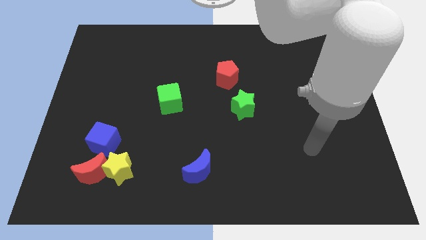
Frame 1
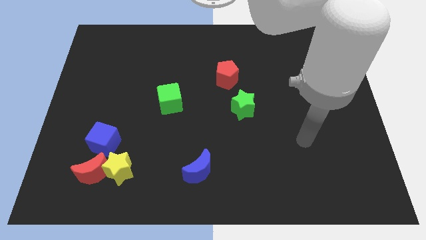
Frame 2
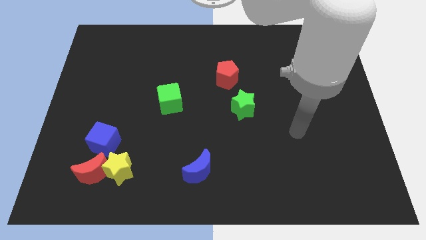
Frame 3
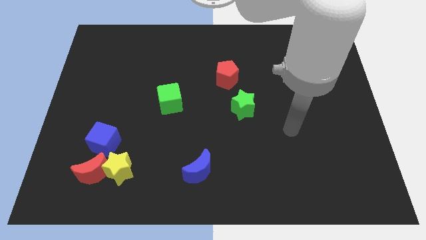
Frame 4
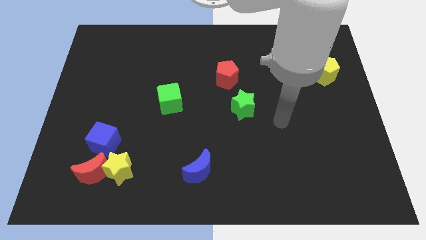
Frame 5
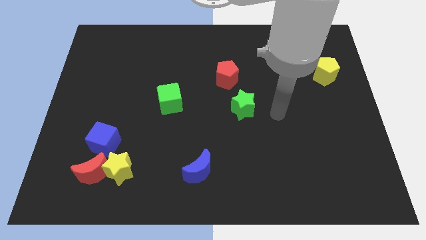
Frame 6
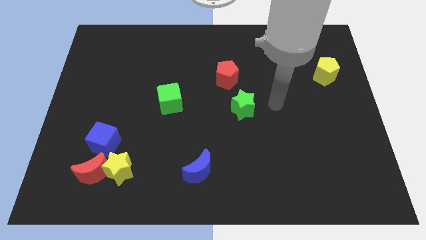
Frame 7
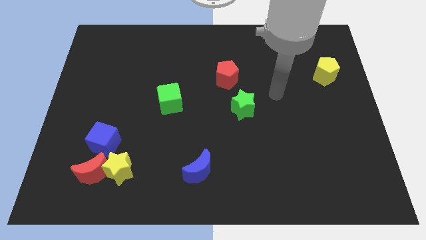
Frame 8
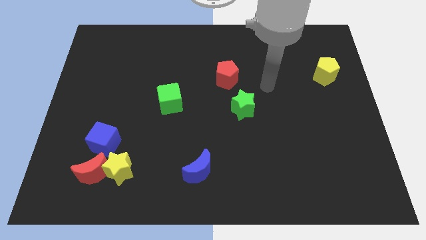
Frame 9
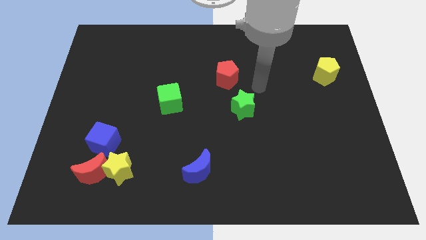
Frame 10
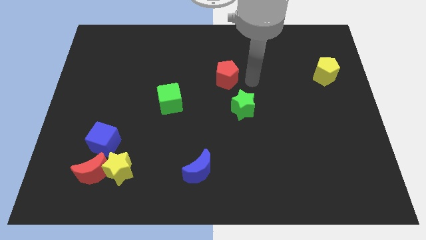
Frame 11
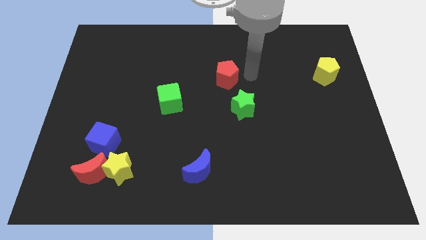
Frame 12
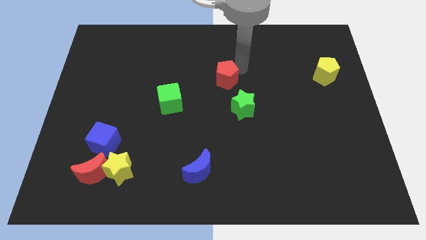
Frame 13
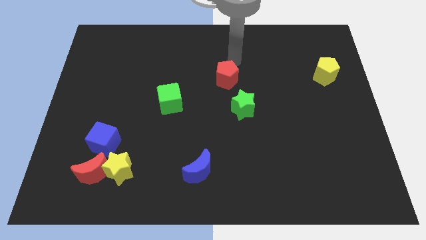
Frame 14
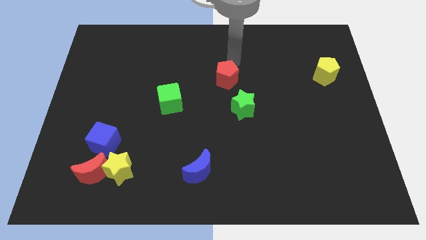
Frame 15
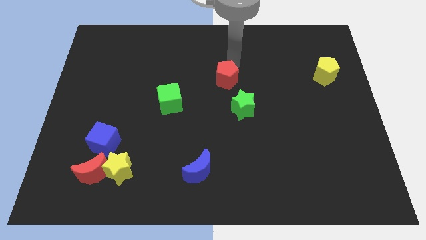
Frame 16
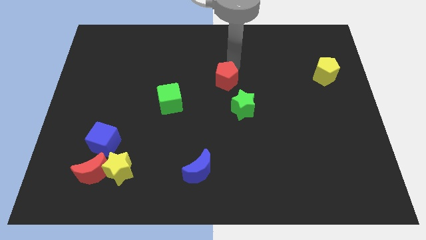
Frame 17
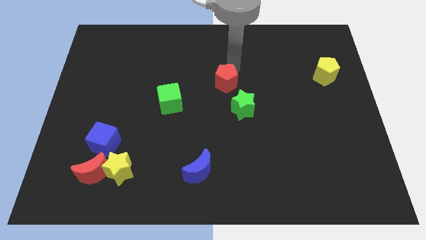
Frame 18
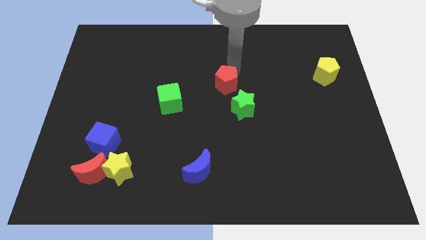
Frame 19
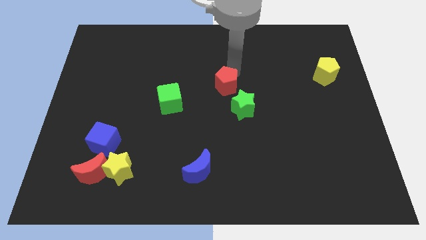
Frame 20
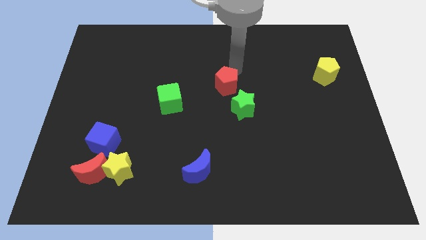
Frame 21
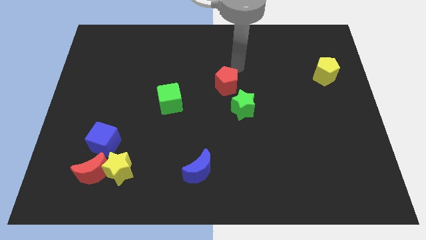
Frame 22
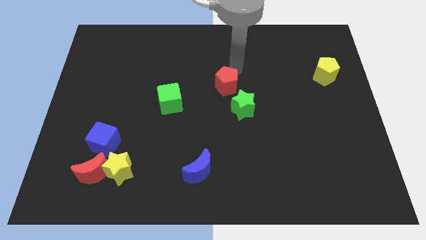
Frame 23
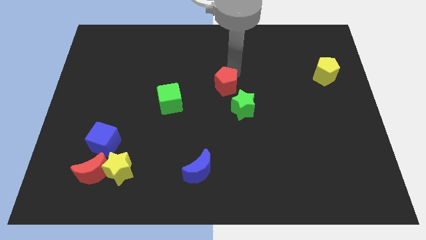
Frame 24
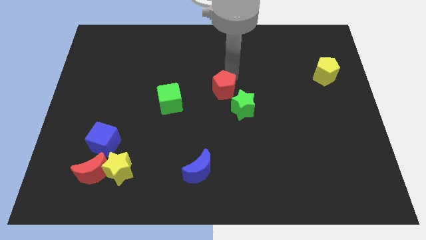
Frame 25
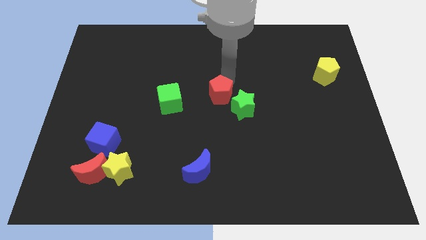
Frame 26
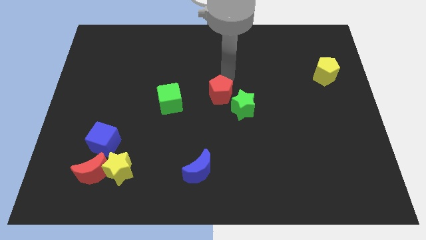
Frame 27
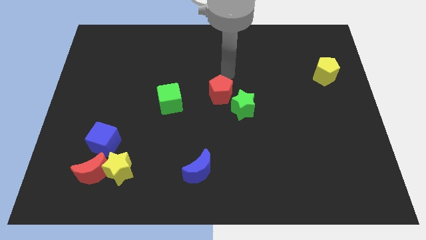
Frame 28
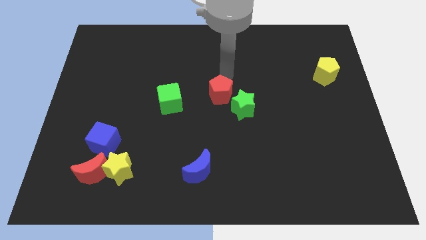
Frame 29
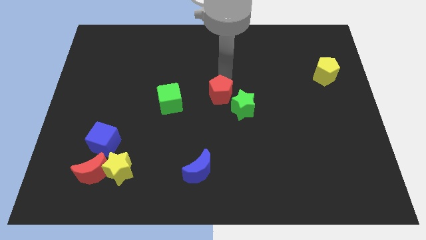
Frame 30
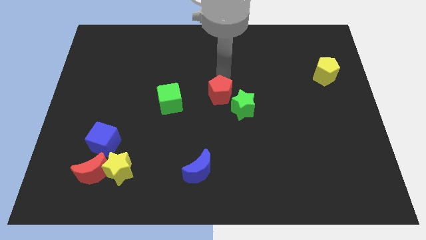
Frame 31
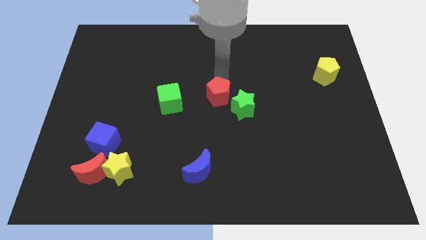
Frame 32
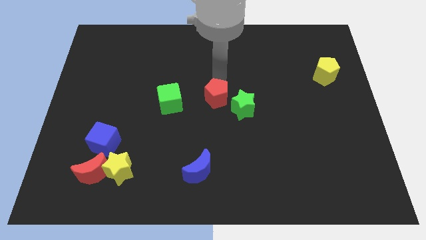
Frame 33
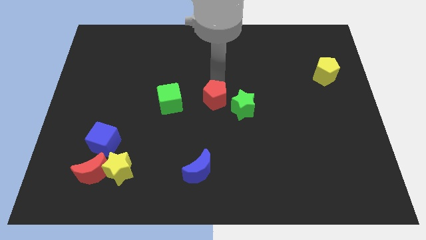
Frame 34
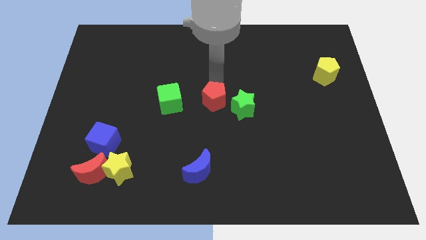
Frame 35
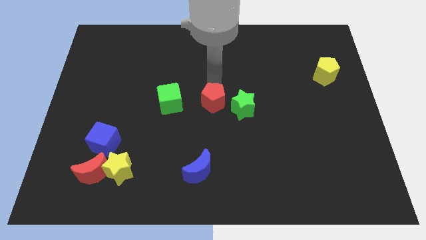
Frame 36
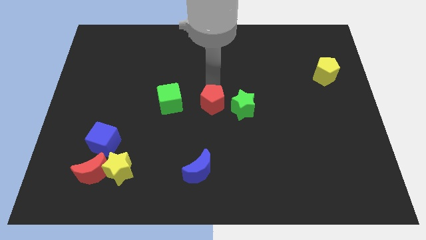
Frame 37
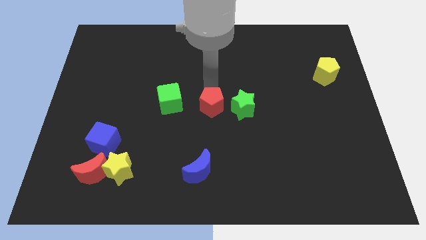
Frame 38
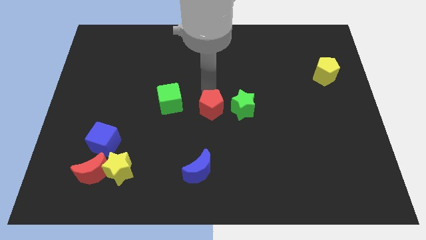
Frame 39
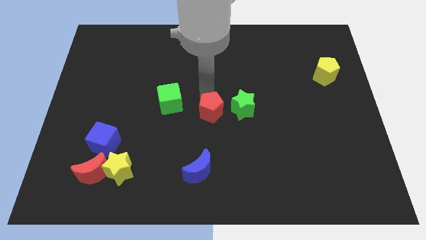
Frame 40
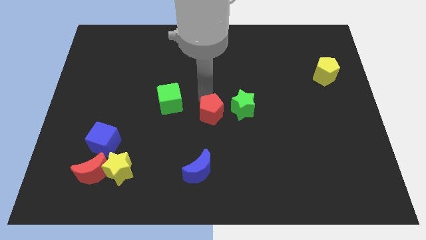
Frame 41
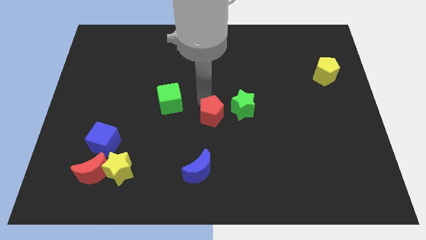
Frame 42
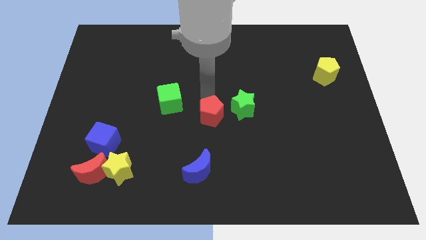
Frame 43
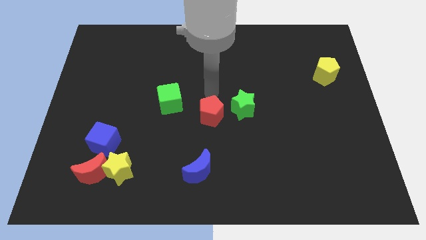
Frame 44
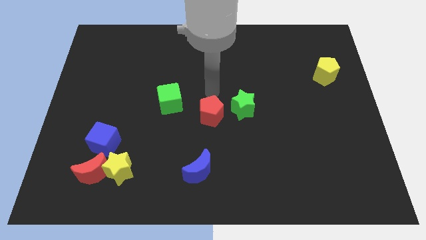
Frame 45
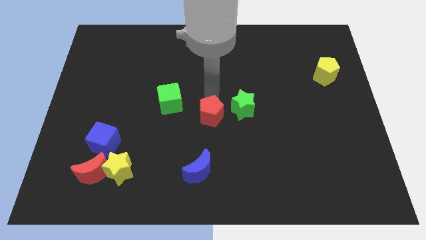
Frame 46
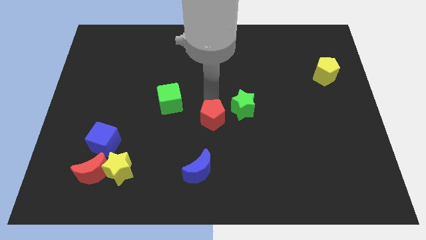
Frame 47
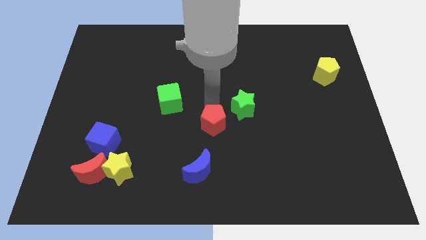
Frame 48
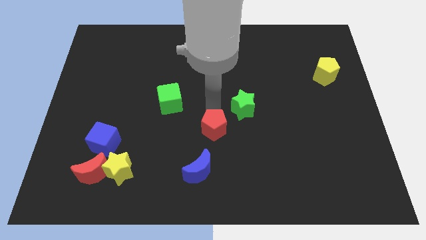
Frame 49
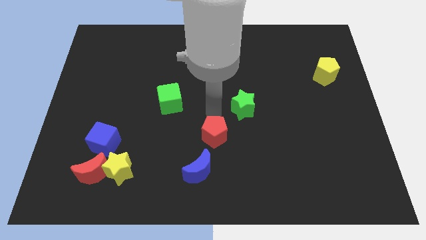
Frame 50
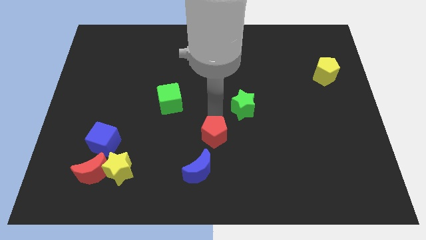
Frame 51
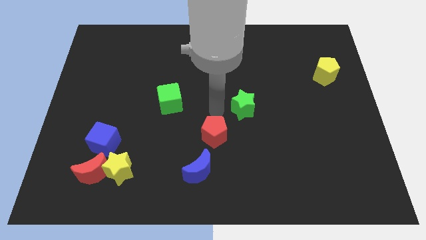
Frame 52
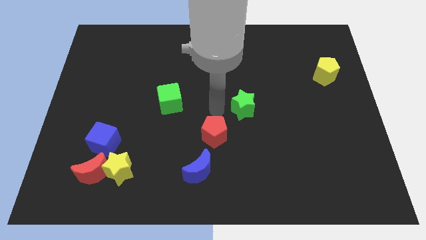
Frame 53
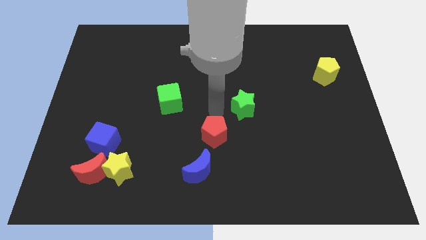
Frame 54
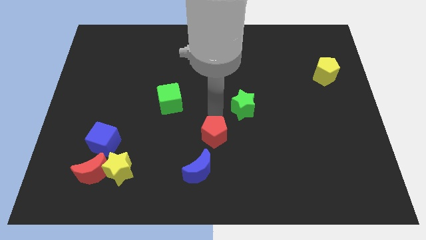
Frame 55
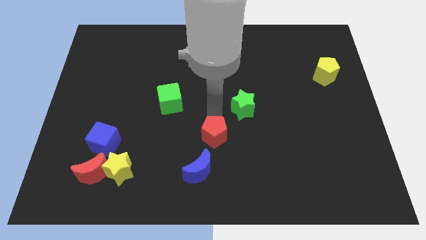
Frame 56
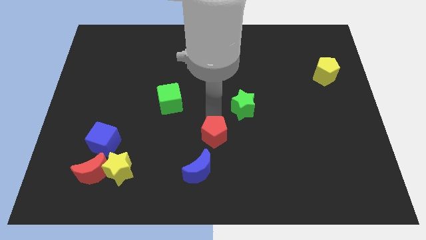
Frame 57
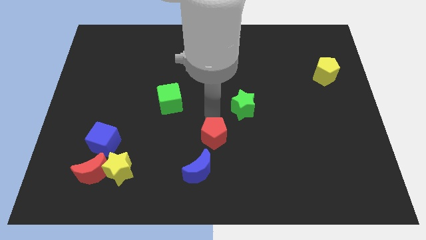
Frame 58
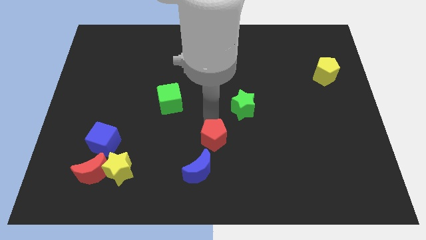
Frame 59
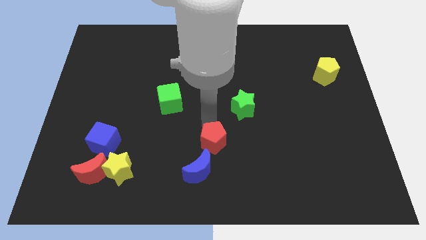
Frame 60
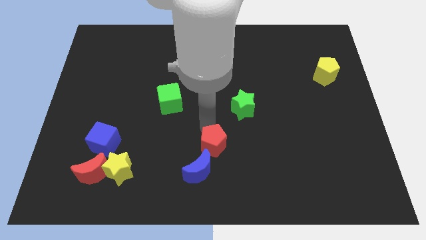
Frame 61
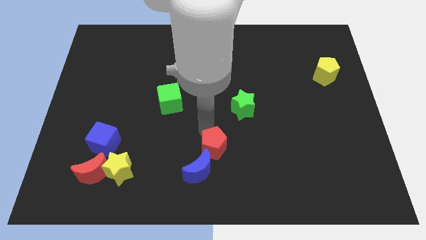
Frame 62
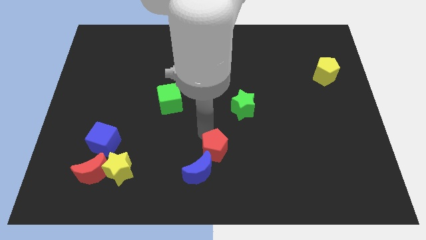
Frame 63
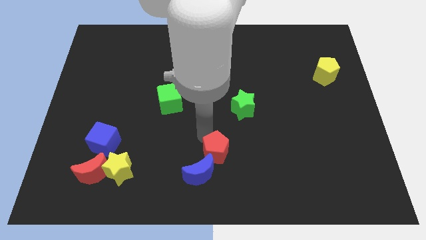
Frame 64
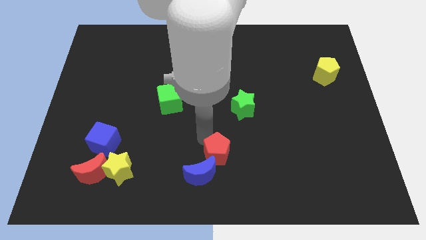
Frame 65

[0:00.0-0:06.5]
slide the red pentagon to the bottom side

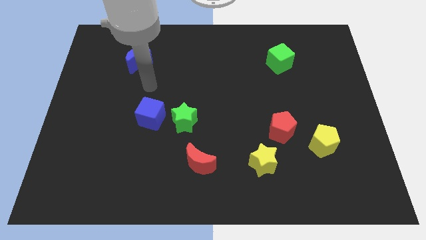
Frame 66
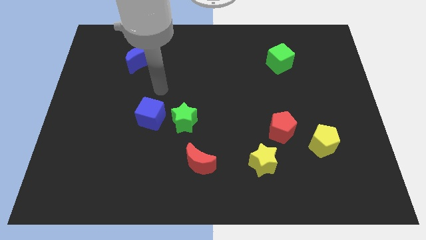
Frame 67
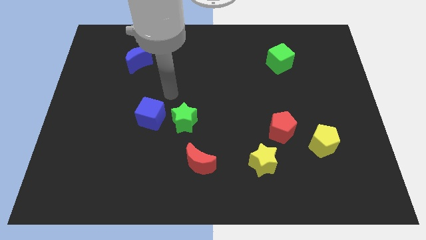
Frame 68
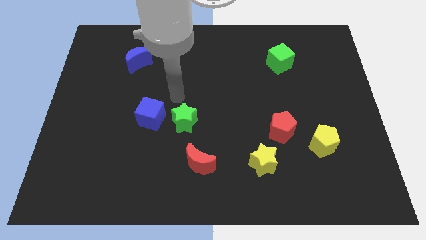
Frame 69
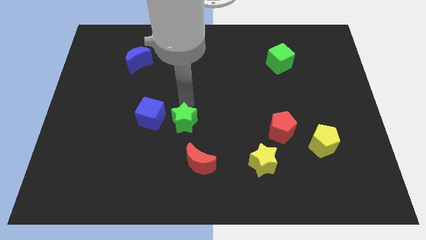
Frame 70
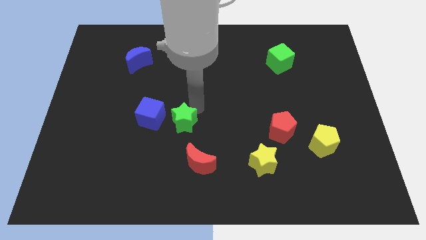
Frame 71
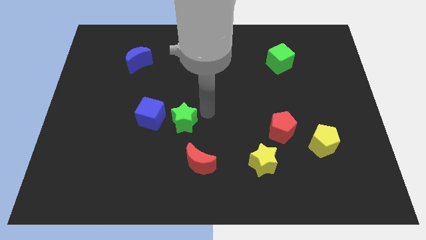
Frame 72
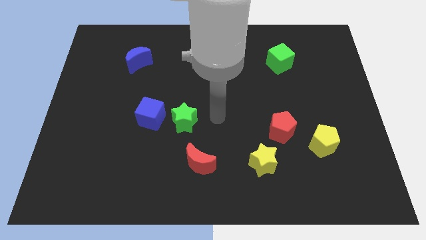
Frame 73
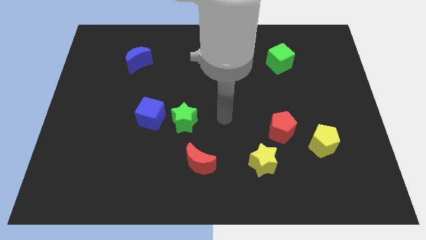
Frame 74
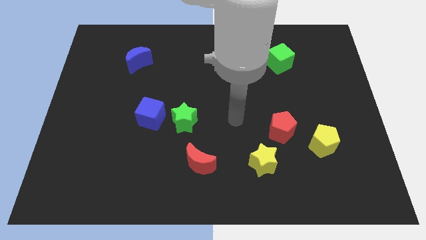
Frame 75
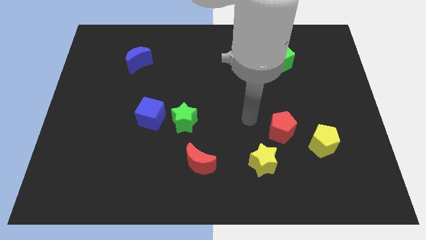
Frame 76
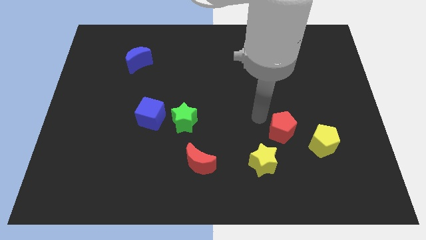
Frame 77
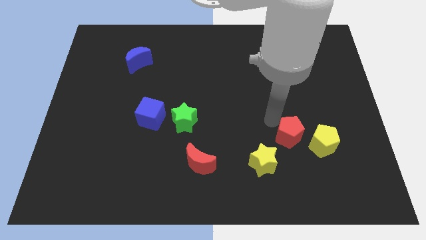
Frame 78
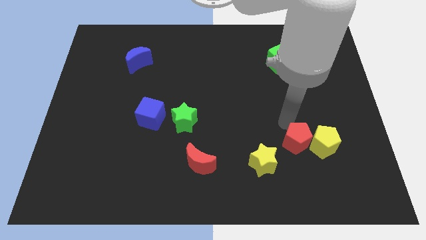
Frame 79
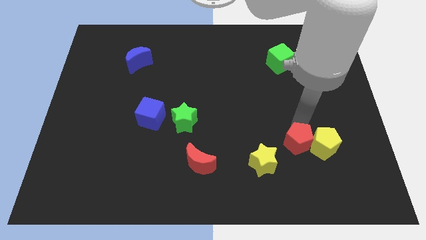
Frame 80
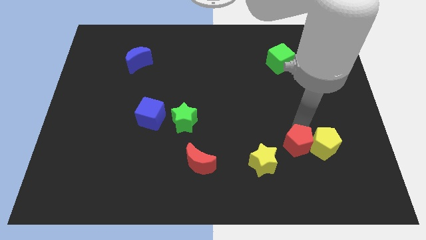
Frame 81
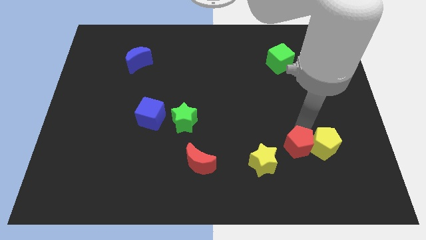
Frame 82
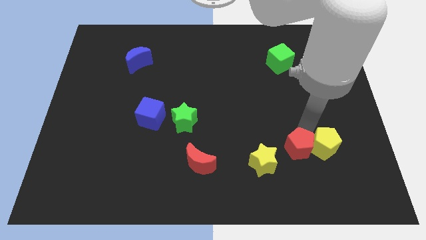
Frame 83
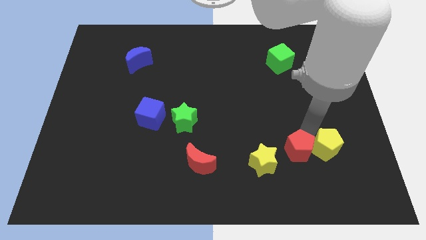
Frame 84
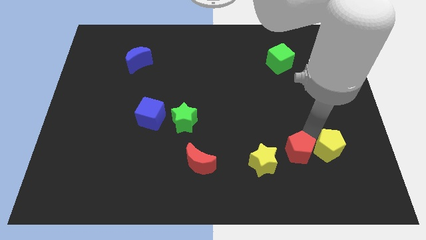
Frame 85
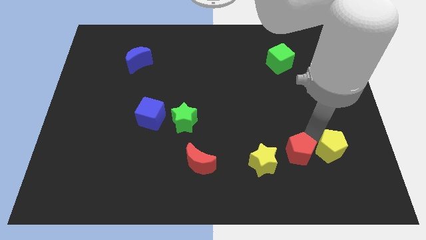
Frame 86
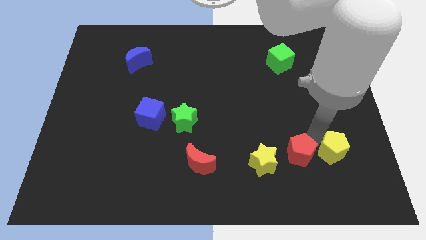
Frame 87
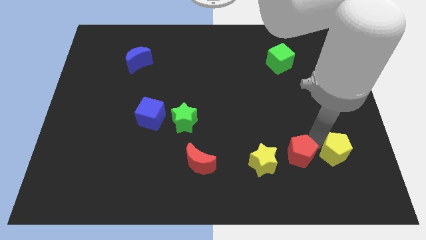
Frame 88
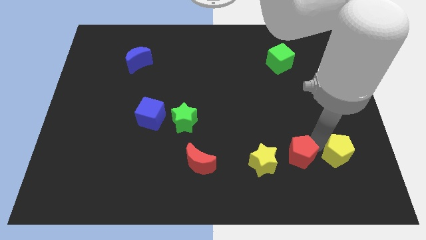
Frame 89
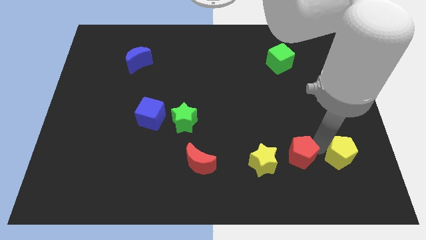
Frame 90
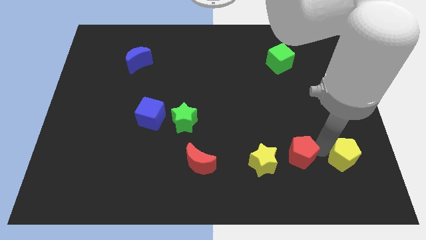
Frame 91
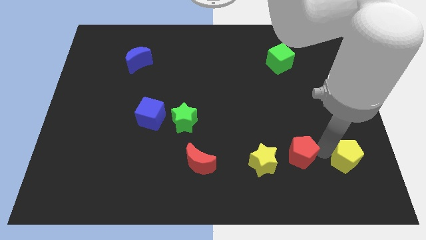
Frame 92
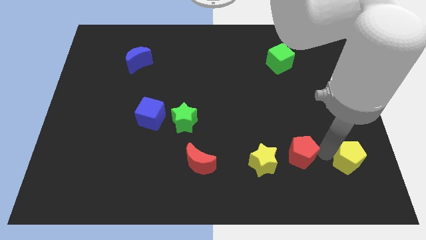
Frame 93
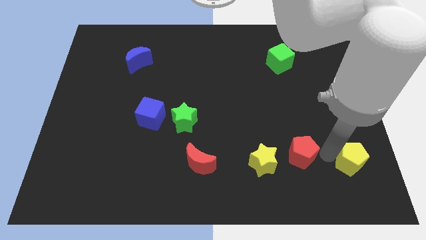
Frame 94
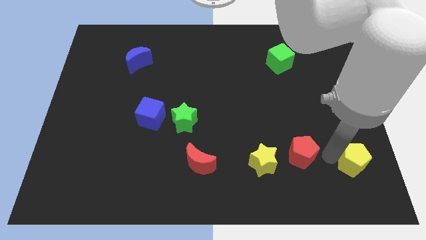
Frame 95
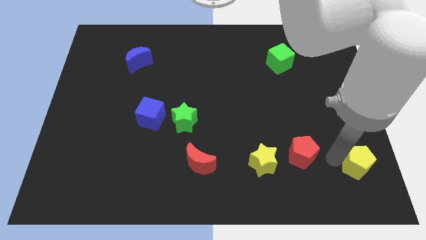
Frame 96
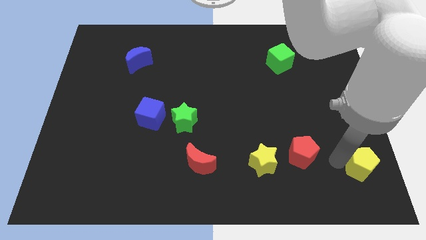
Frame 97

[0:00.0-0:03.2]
move the yellow pentagon to the bottom right corner
